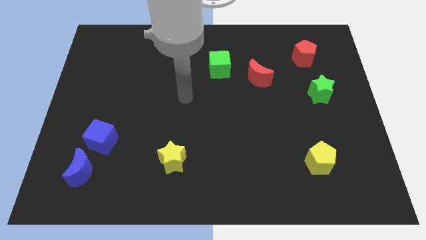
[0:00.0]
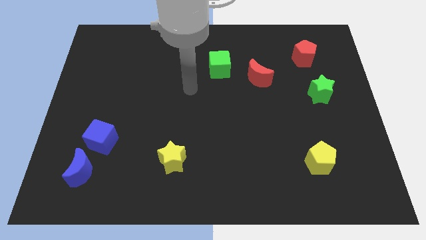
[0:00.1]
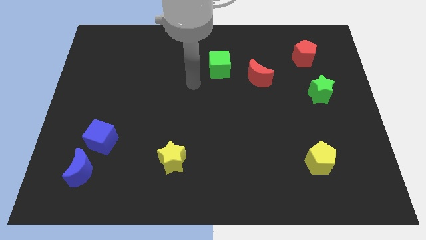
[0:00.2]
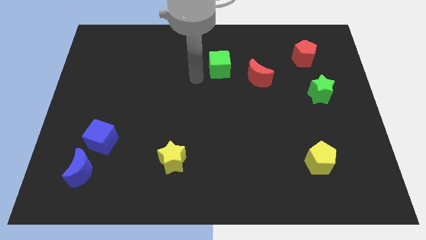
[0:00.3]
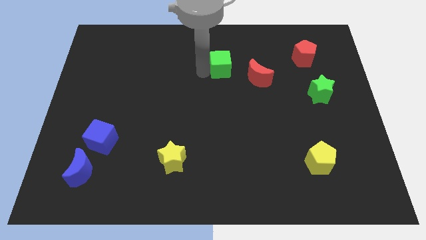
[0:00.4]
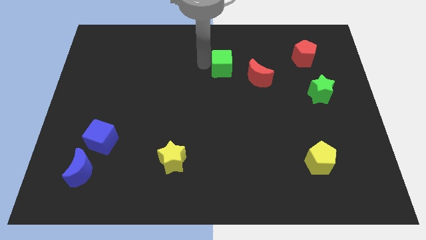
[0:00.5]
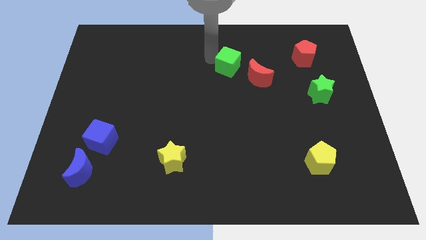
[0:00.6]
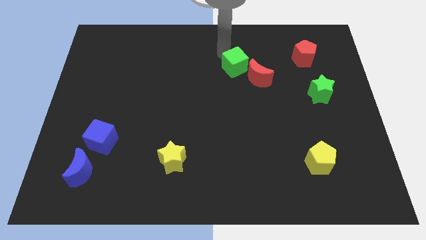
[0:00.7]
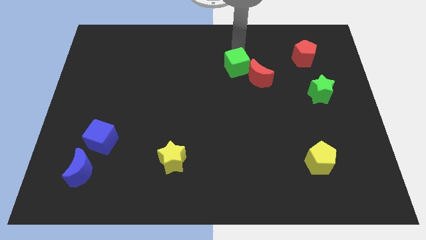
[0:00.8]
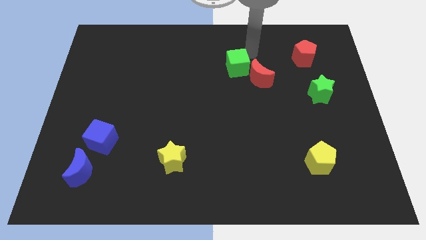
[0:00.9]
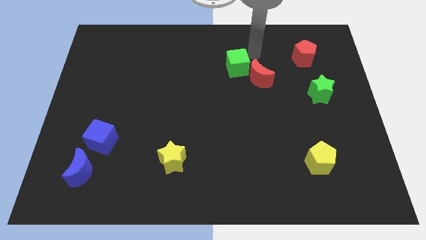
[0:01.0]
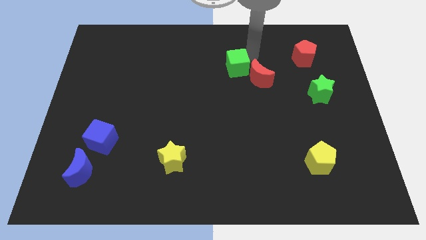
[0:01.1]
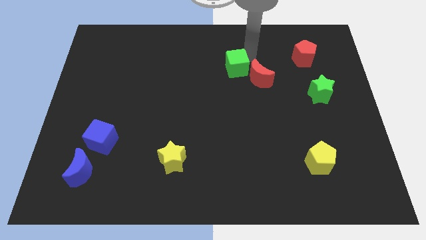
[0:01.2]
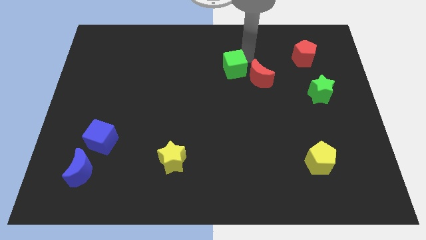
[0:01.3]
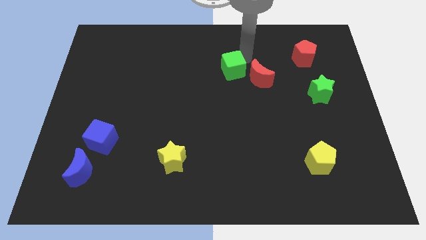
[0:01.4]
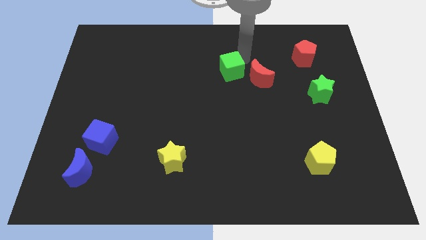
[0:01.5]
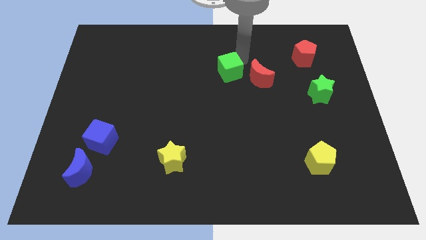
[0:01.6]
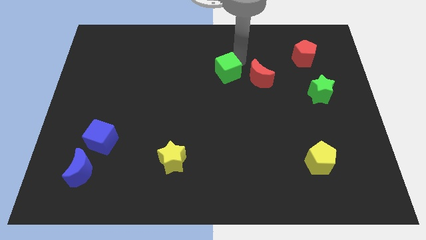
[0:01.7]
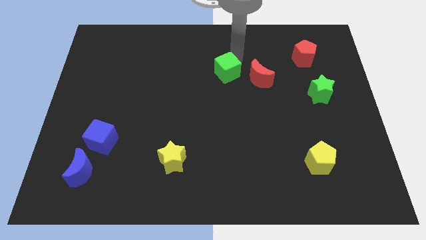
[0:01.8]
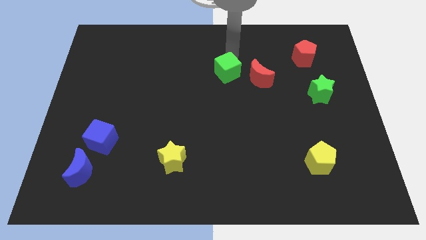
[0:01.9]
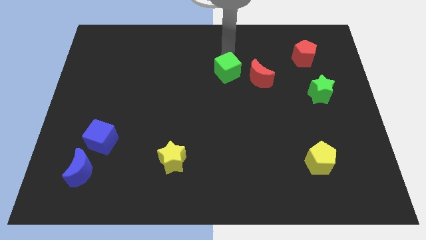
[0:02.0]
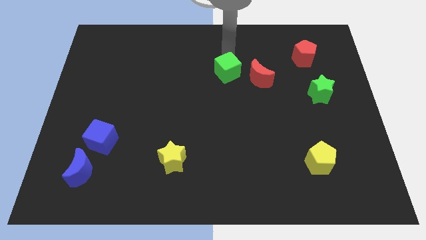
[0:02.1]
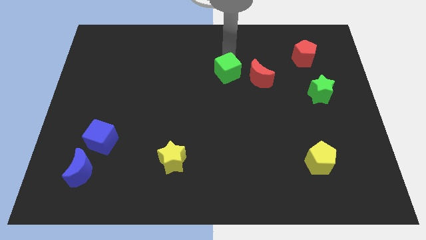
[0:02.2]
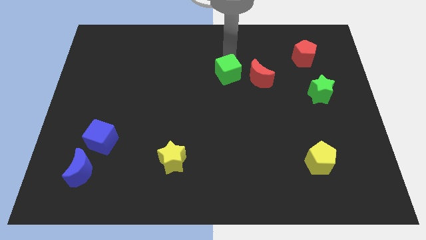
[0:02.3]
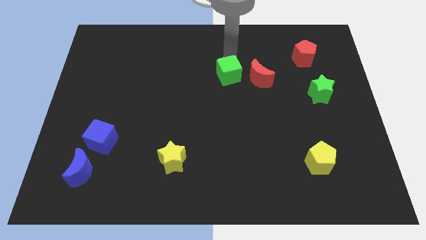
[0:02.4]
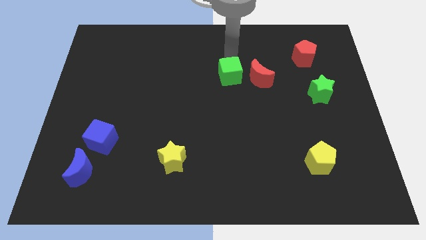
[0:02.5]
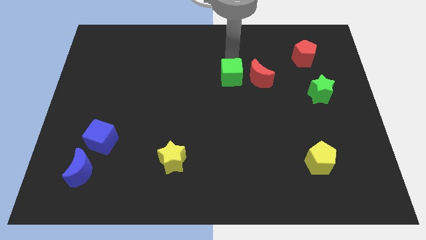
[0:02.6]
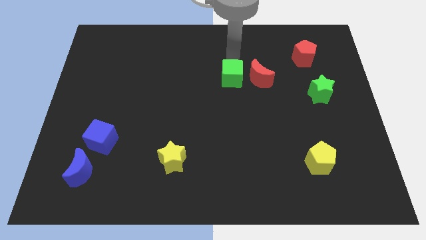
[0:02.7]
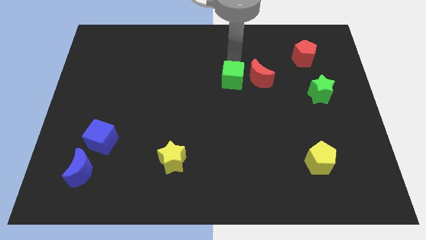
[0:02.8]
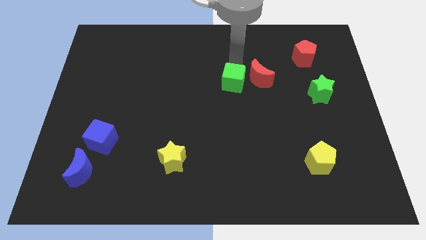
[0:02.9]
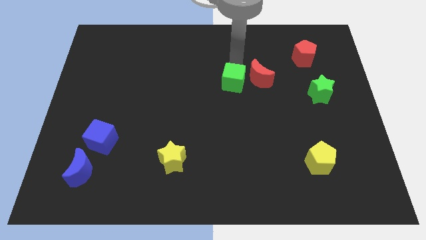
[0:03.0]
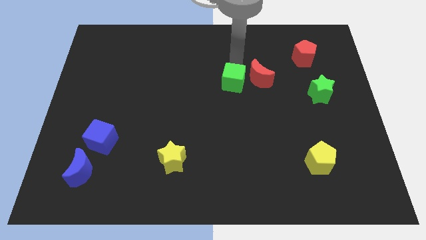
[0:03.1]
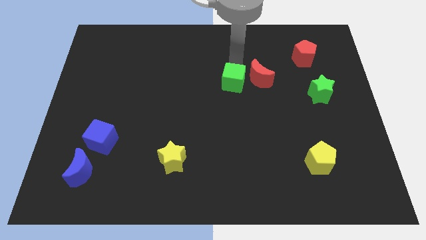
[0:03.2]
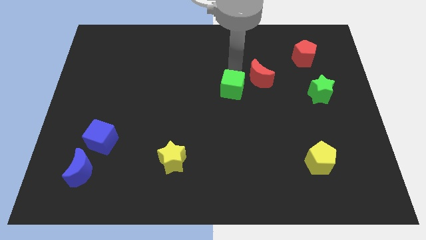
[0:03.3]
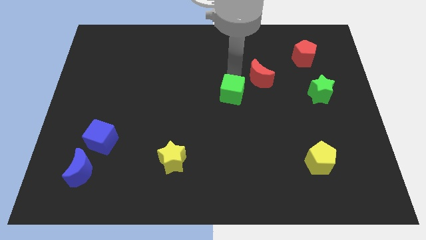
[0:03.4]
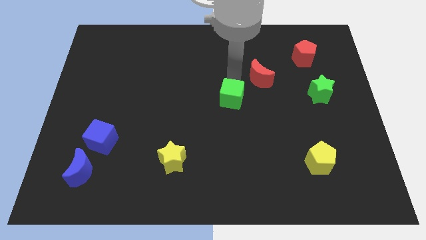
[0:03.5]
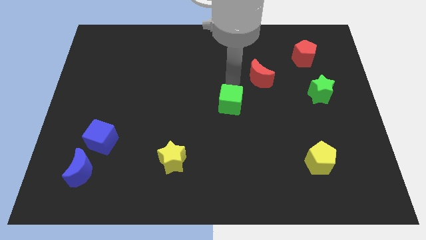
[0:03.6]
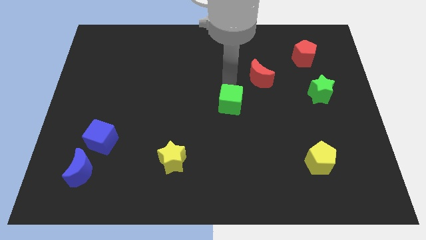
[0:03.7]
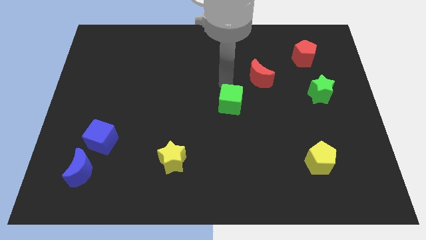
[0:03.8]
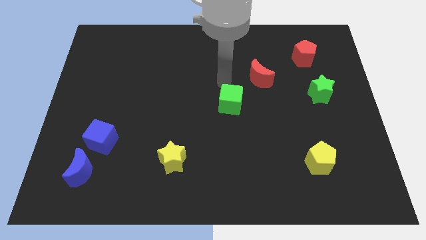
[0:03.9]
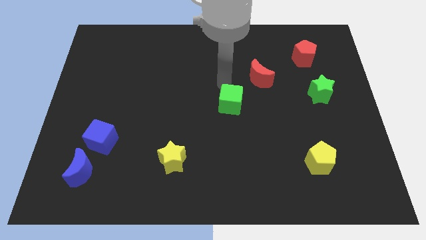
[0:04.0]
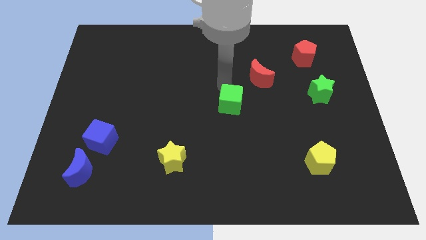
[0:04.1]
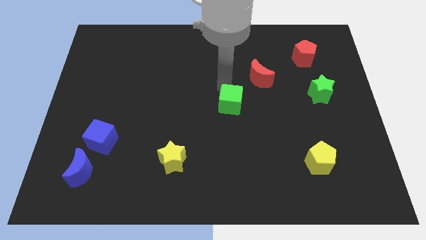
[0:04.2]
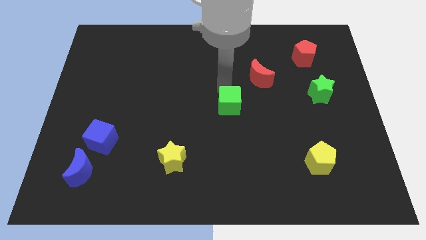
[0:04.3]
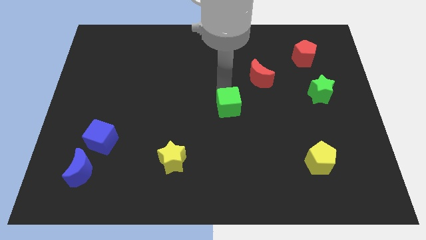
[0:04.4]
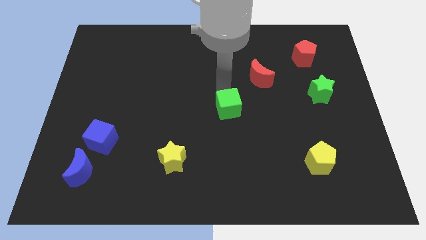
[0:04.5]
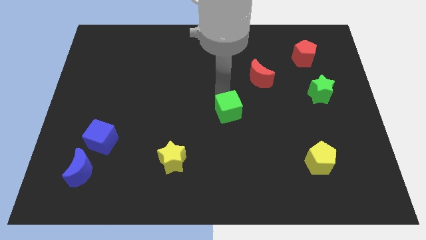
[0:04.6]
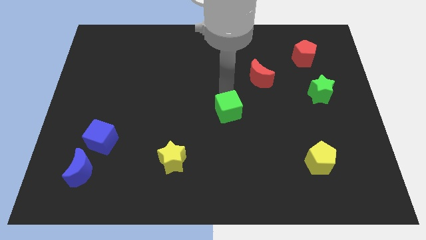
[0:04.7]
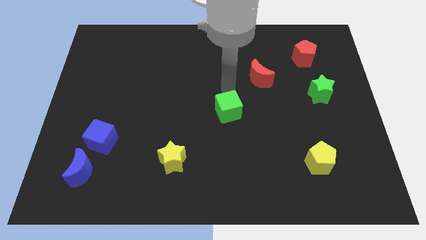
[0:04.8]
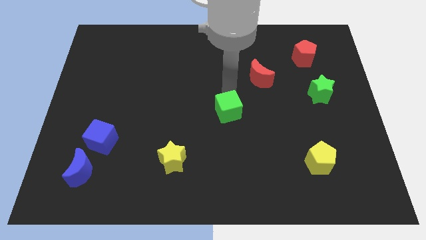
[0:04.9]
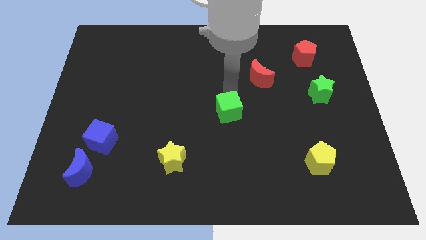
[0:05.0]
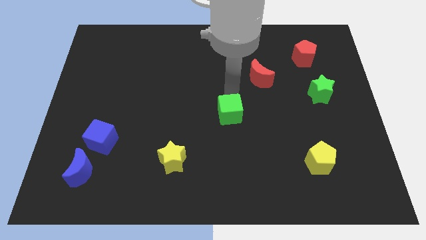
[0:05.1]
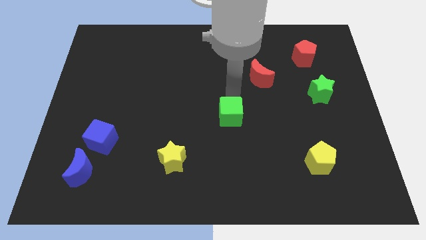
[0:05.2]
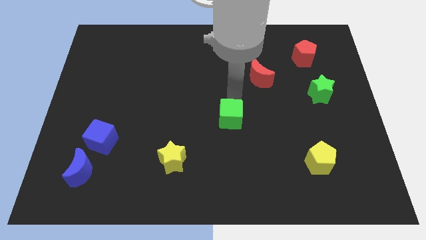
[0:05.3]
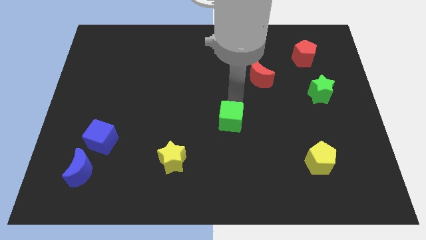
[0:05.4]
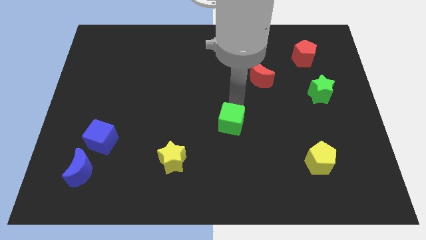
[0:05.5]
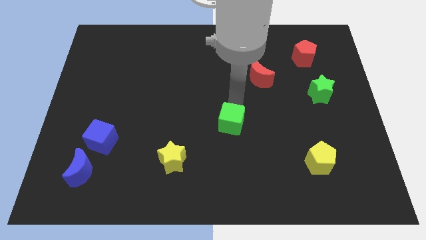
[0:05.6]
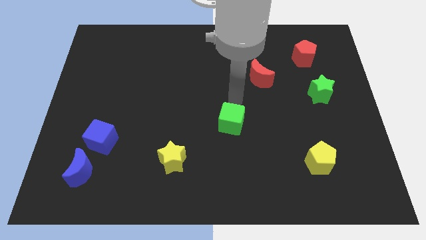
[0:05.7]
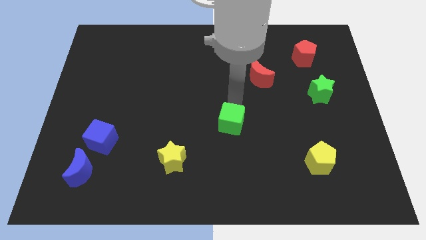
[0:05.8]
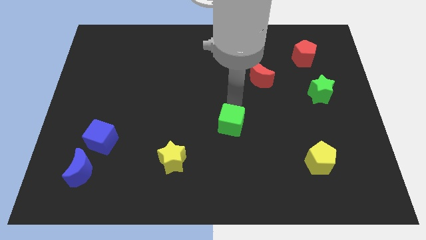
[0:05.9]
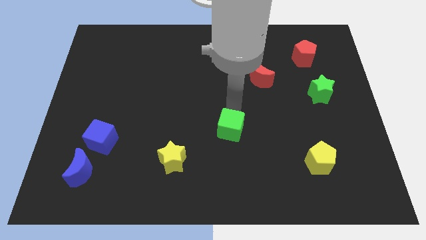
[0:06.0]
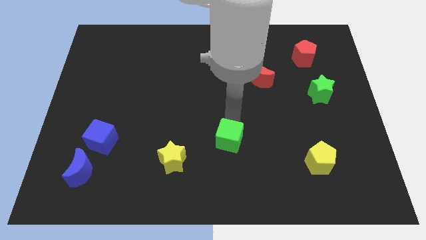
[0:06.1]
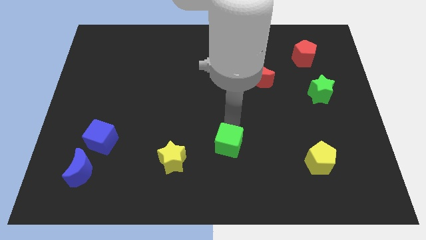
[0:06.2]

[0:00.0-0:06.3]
push the green cube just right of the yellow star

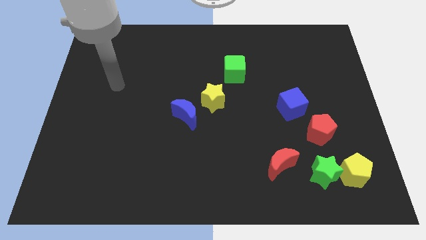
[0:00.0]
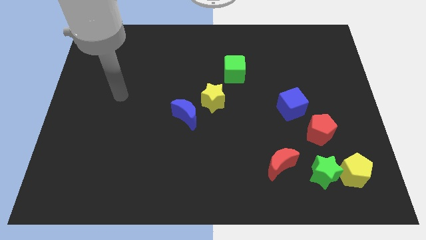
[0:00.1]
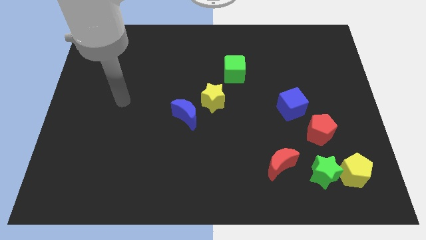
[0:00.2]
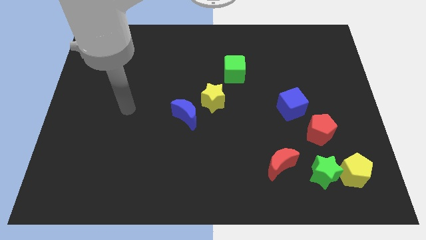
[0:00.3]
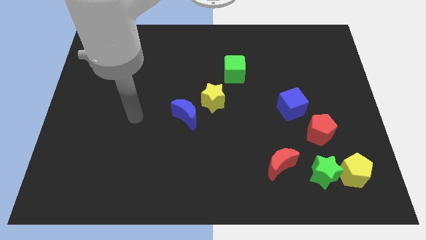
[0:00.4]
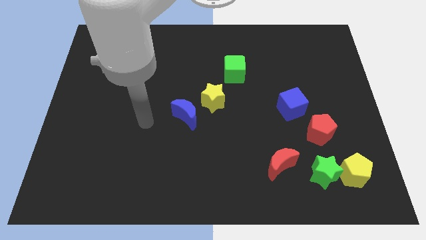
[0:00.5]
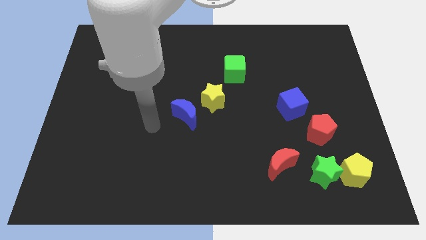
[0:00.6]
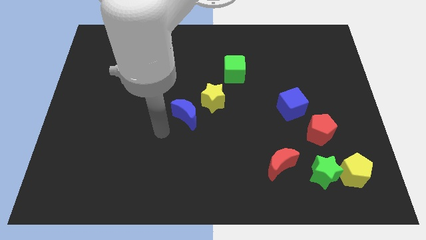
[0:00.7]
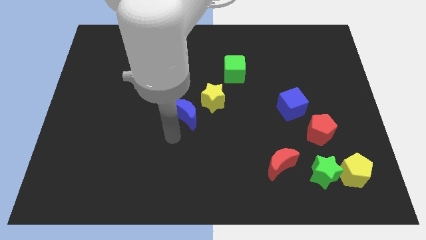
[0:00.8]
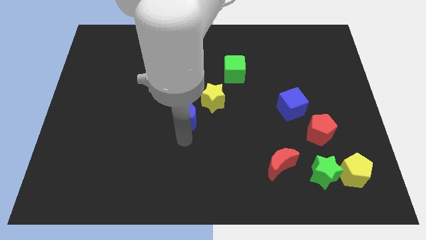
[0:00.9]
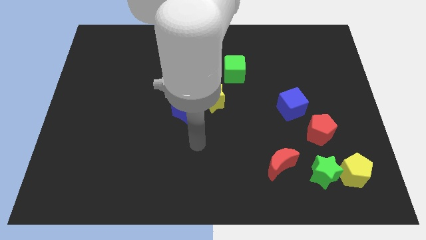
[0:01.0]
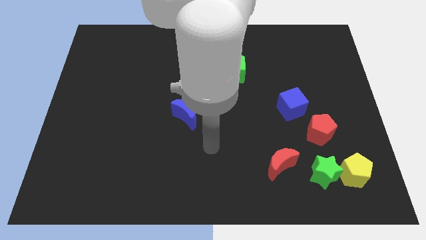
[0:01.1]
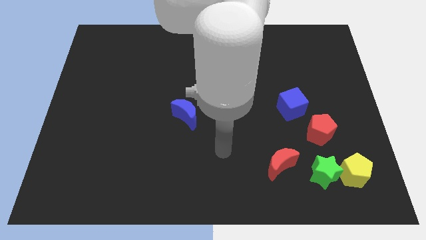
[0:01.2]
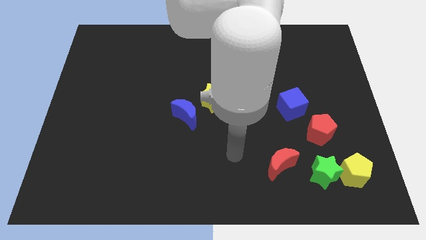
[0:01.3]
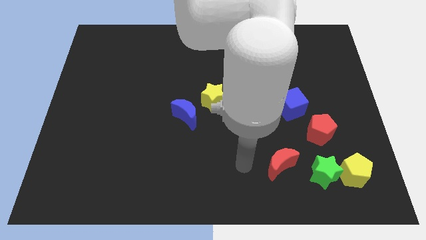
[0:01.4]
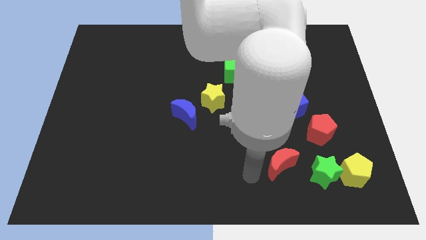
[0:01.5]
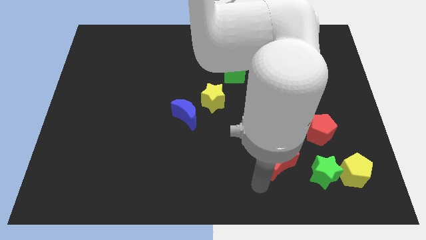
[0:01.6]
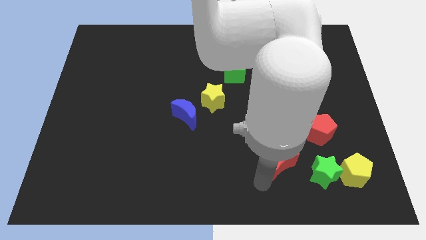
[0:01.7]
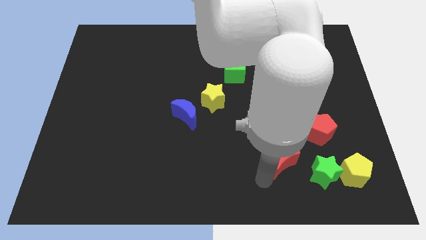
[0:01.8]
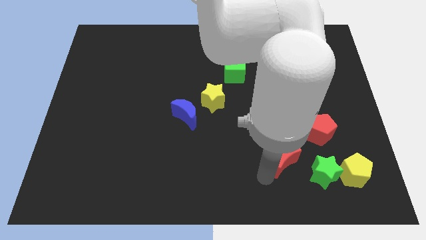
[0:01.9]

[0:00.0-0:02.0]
push the red moon to the bottom side of the blue cube
